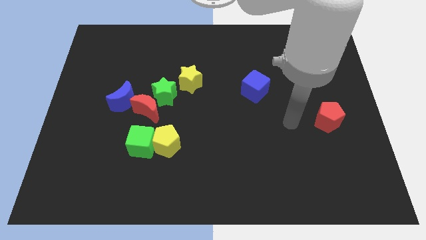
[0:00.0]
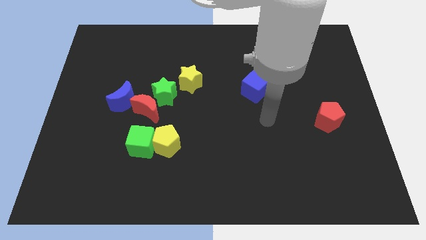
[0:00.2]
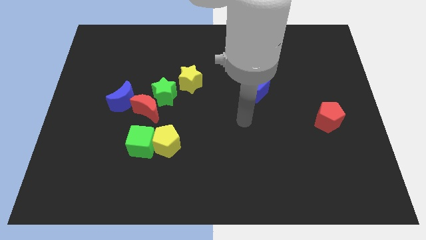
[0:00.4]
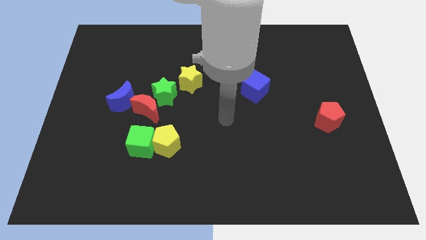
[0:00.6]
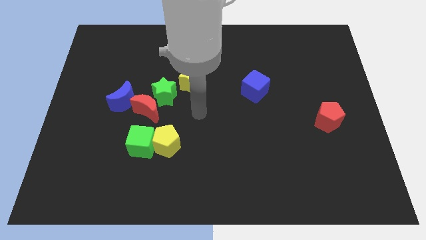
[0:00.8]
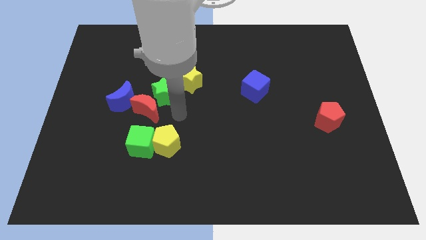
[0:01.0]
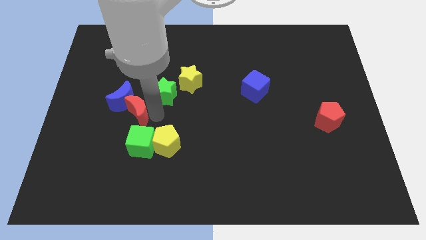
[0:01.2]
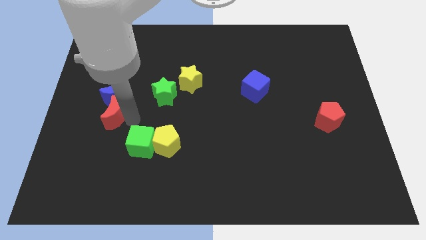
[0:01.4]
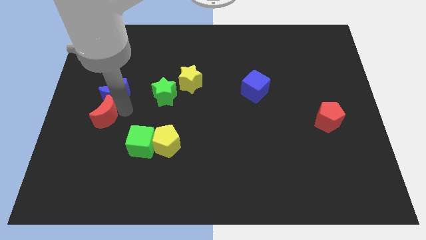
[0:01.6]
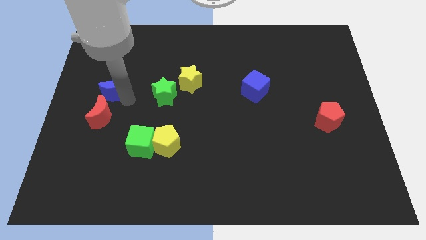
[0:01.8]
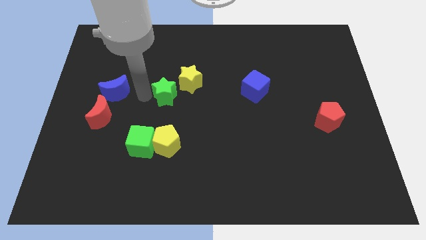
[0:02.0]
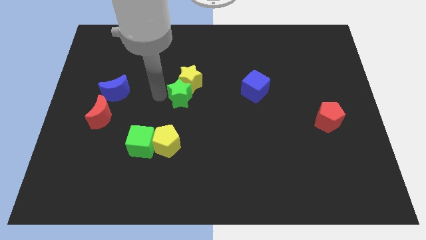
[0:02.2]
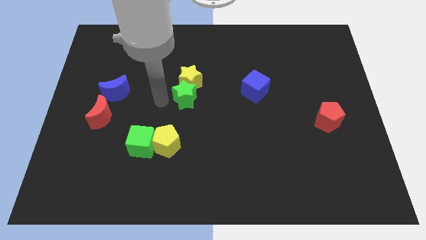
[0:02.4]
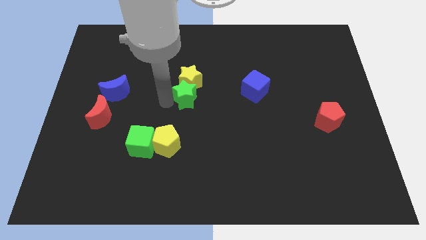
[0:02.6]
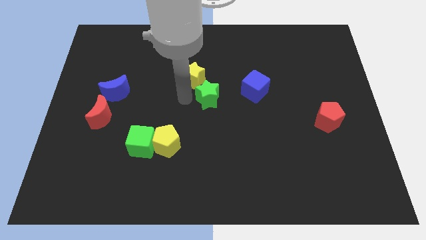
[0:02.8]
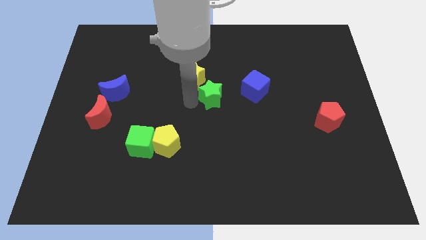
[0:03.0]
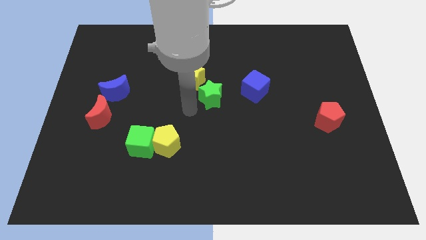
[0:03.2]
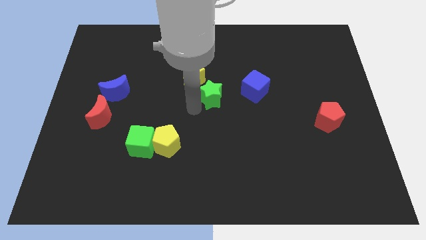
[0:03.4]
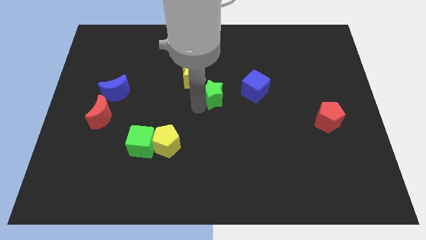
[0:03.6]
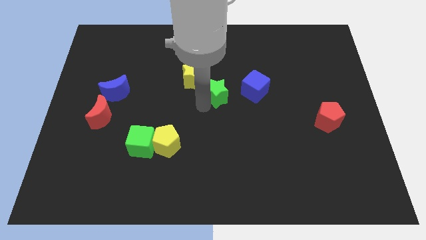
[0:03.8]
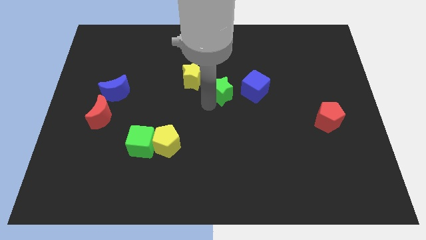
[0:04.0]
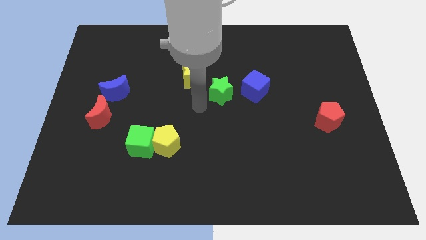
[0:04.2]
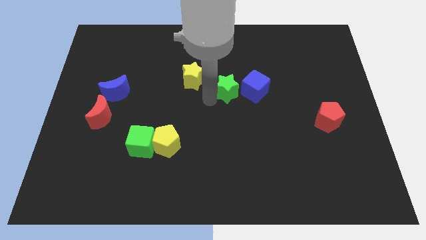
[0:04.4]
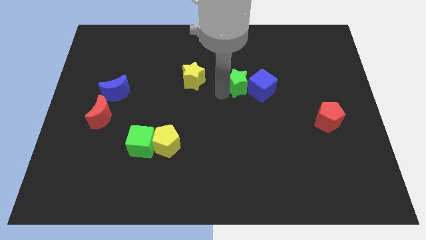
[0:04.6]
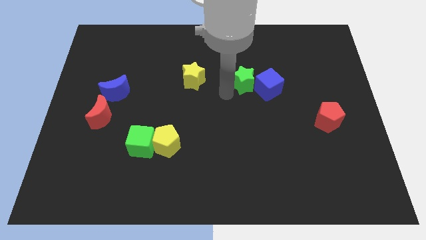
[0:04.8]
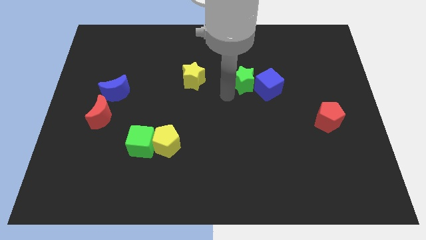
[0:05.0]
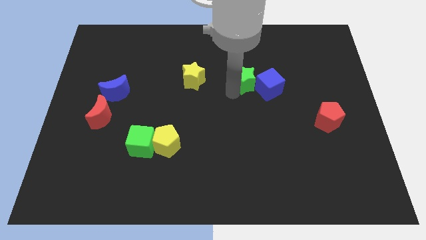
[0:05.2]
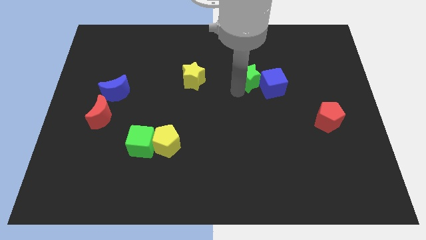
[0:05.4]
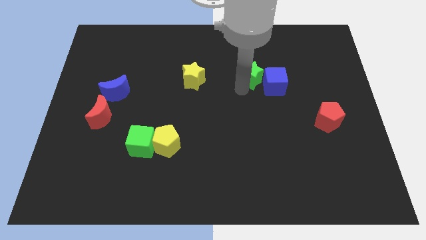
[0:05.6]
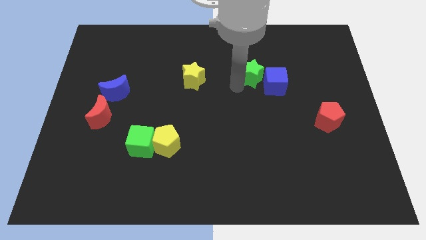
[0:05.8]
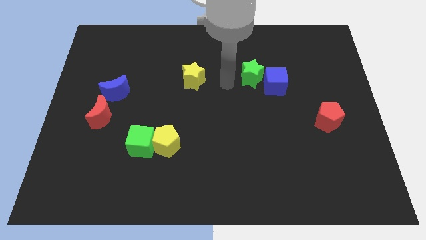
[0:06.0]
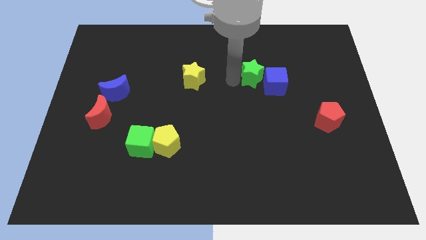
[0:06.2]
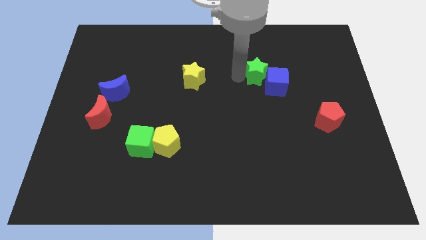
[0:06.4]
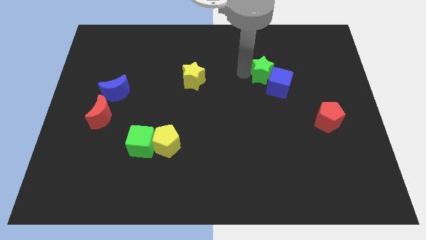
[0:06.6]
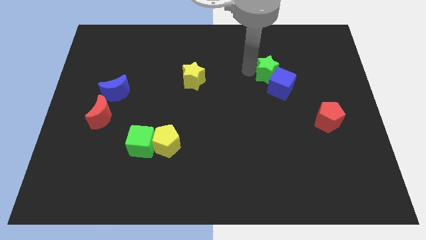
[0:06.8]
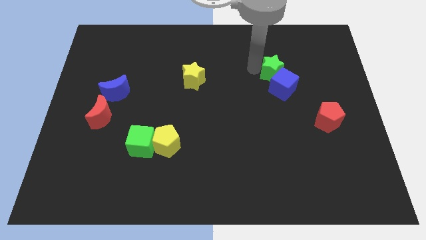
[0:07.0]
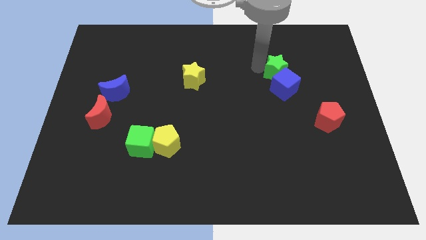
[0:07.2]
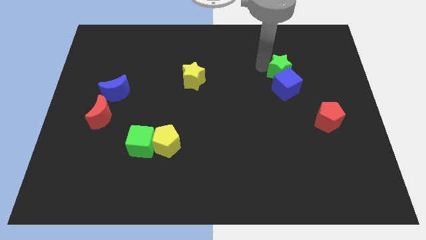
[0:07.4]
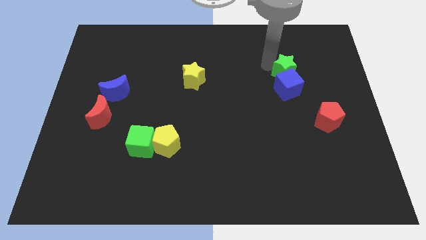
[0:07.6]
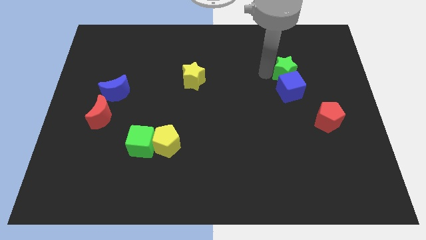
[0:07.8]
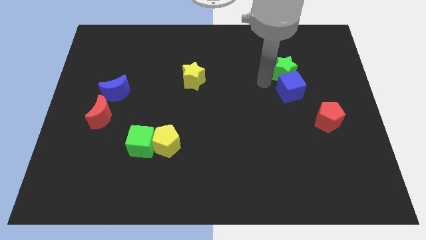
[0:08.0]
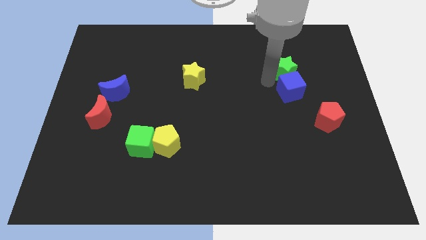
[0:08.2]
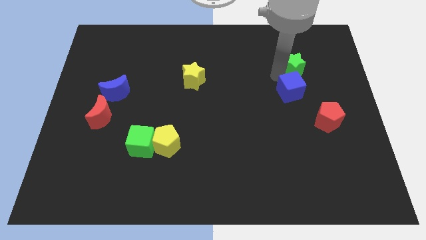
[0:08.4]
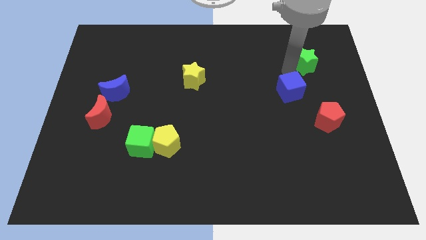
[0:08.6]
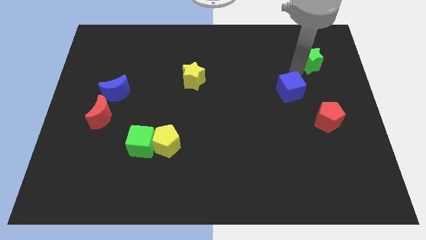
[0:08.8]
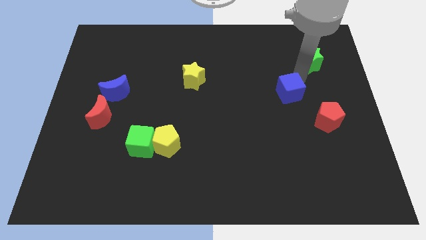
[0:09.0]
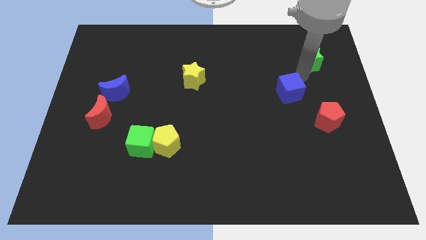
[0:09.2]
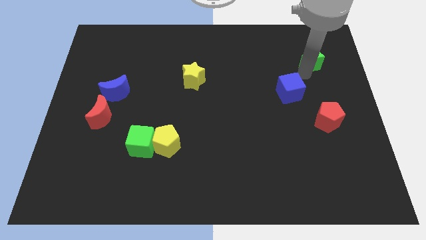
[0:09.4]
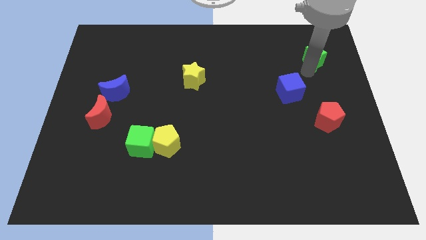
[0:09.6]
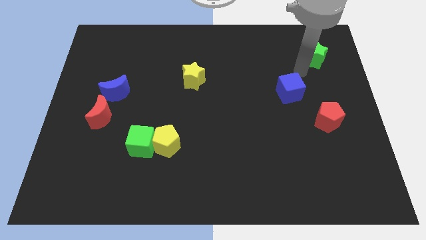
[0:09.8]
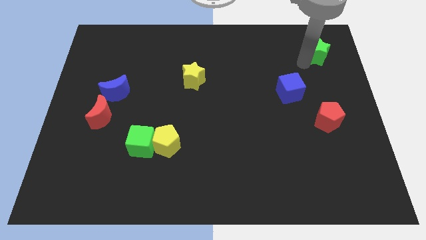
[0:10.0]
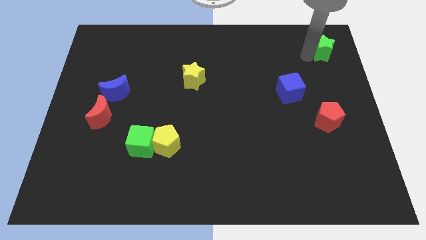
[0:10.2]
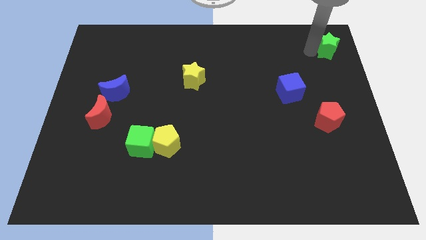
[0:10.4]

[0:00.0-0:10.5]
put the green star to the top right

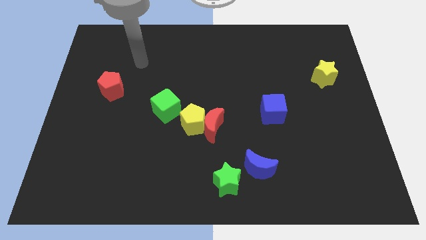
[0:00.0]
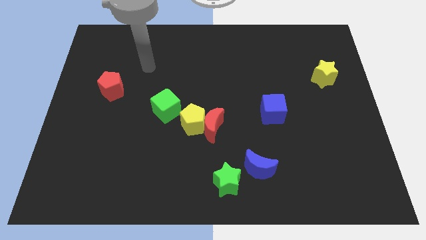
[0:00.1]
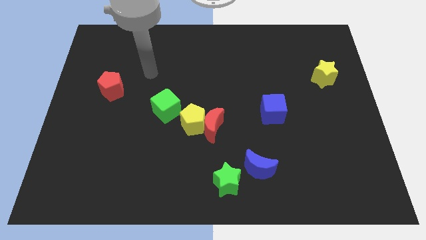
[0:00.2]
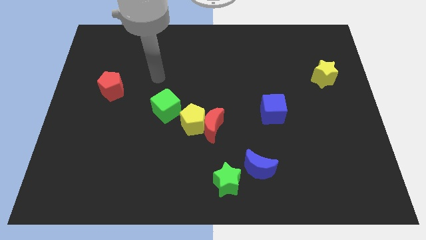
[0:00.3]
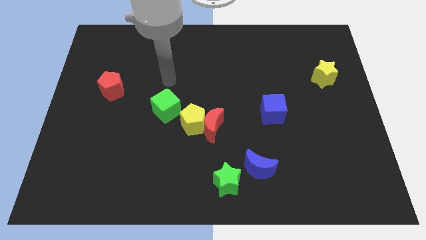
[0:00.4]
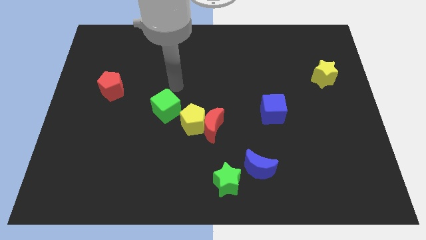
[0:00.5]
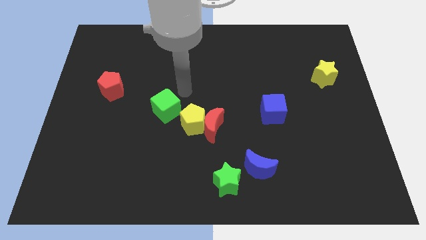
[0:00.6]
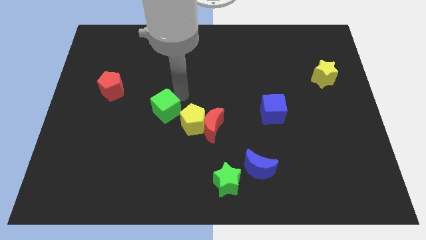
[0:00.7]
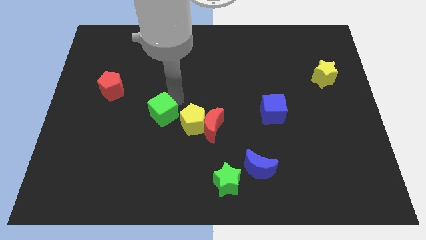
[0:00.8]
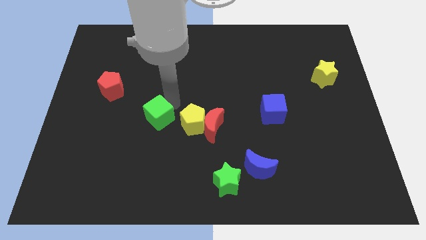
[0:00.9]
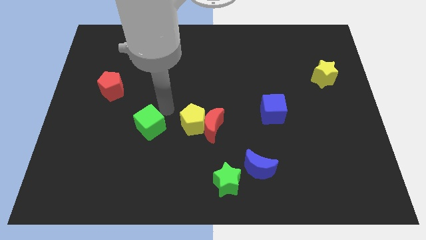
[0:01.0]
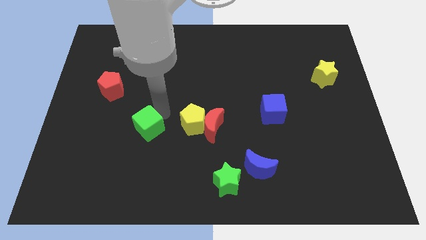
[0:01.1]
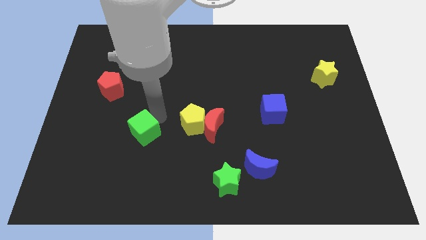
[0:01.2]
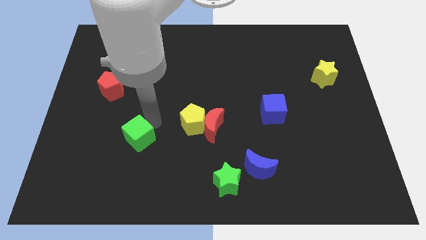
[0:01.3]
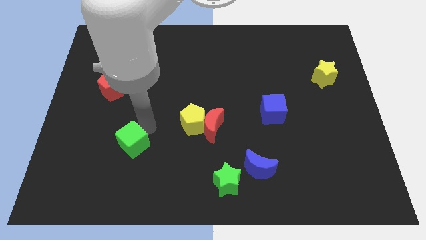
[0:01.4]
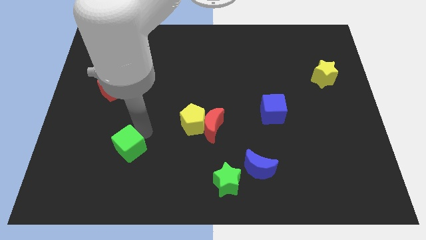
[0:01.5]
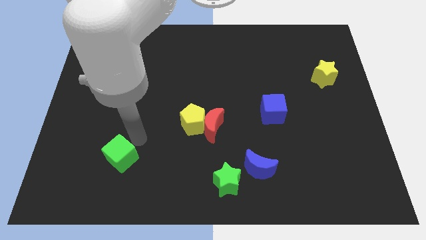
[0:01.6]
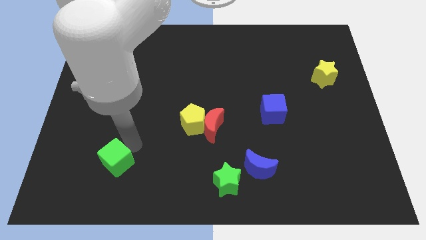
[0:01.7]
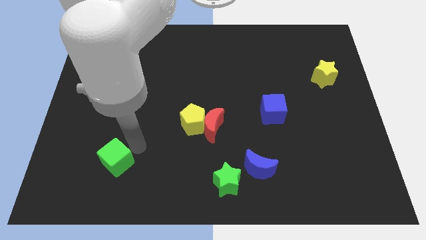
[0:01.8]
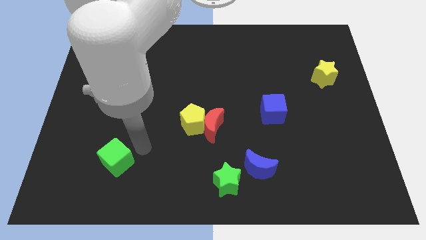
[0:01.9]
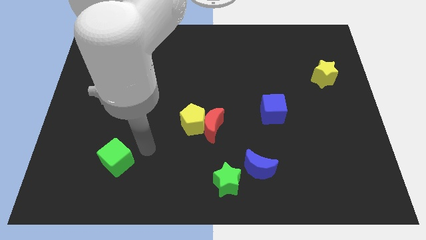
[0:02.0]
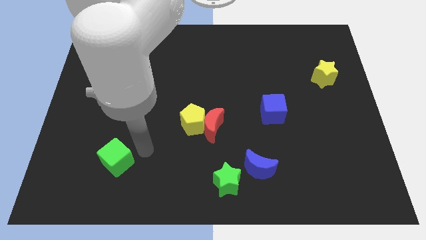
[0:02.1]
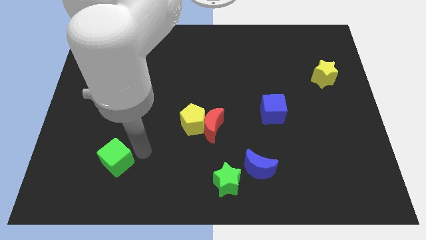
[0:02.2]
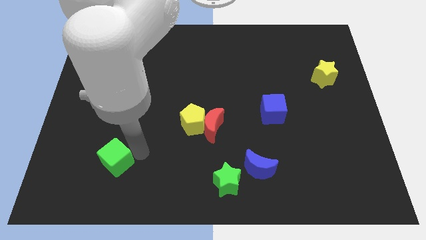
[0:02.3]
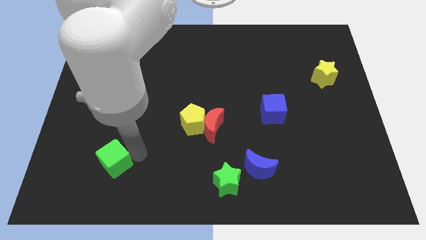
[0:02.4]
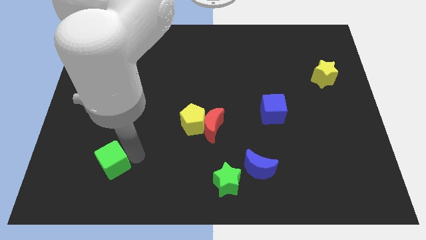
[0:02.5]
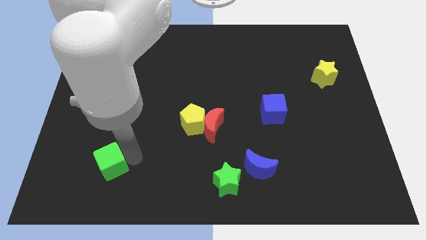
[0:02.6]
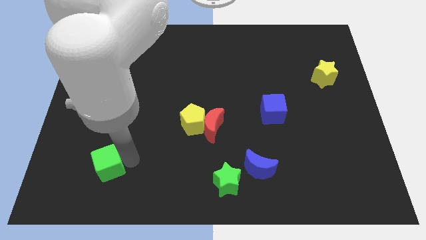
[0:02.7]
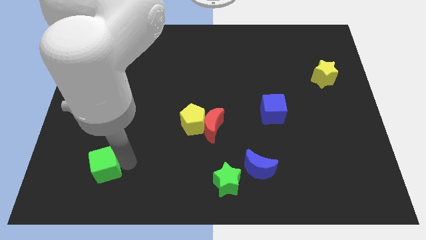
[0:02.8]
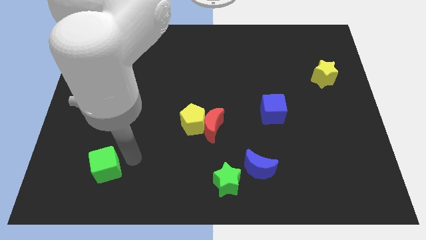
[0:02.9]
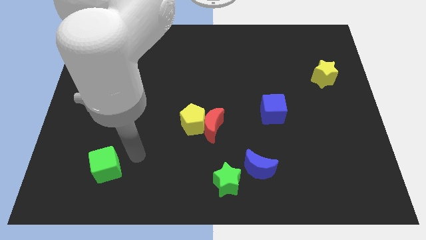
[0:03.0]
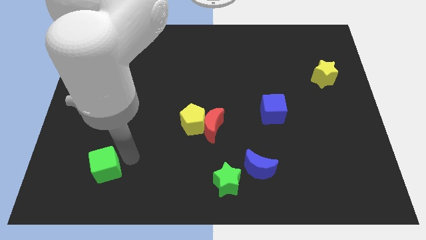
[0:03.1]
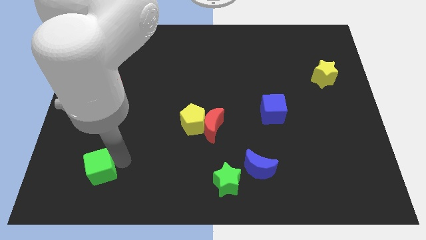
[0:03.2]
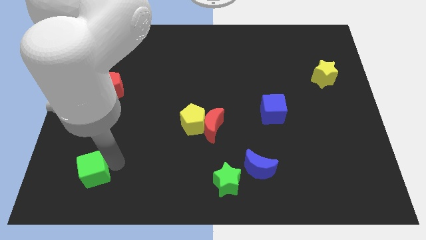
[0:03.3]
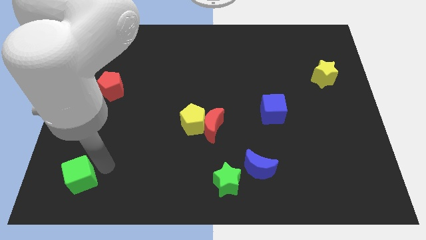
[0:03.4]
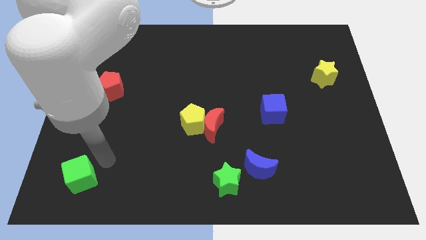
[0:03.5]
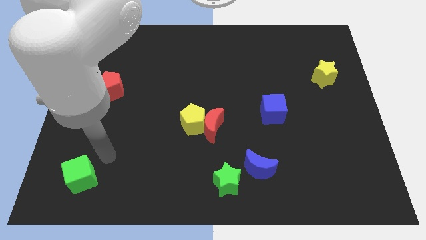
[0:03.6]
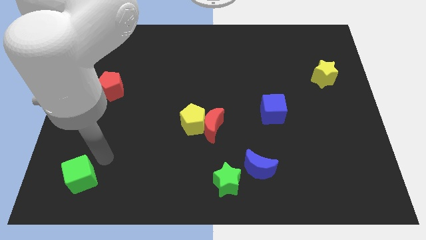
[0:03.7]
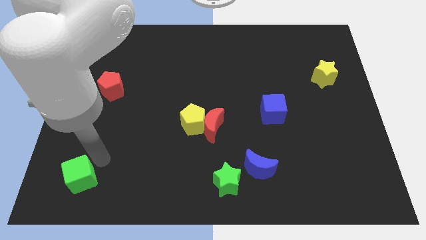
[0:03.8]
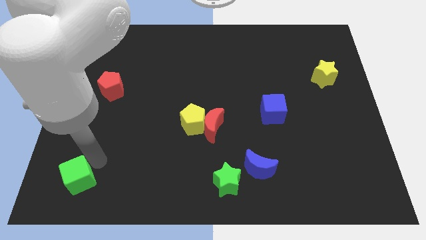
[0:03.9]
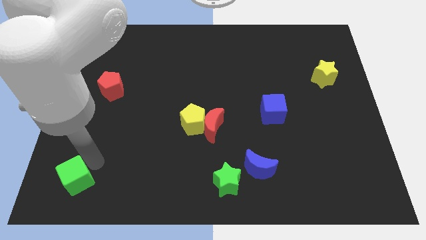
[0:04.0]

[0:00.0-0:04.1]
push the green cube to the lower left corner
